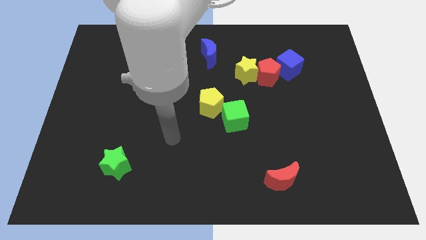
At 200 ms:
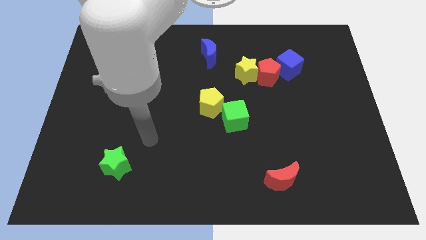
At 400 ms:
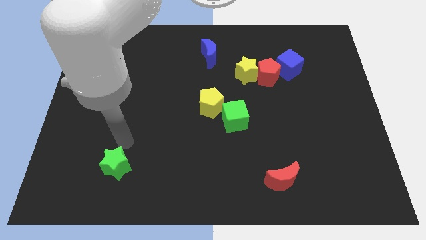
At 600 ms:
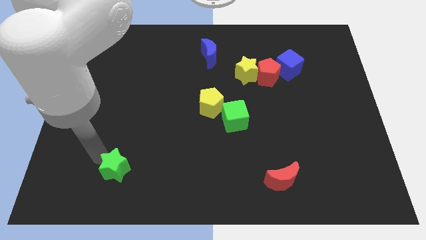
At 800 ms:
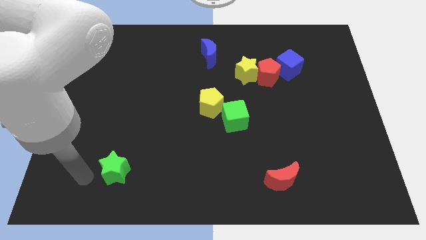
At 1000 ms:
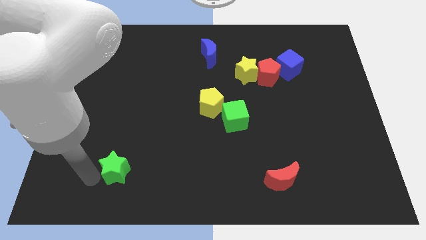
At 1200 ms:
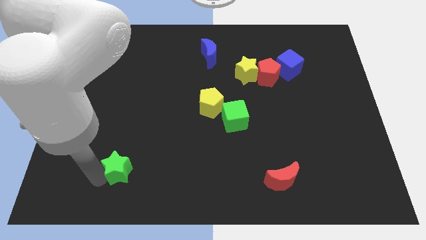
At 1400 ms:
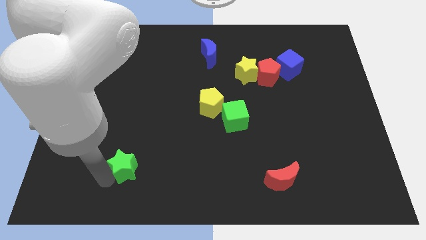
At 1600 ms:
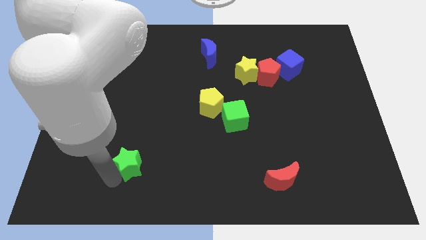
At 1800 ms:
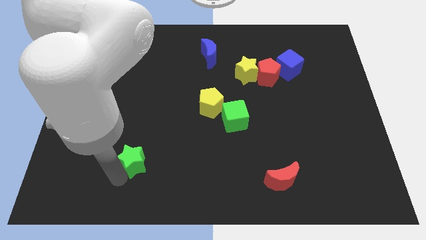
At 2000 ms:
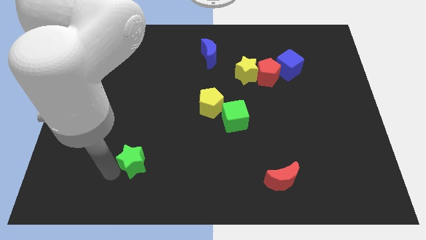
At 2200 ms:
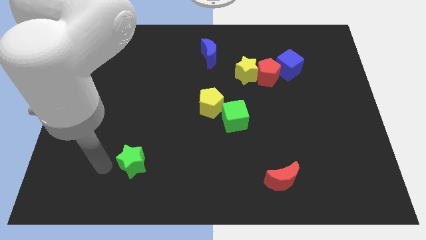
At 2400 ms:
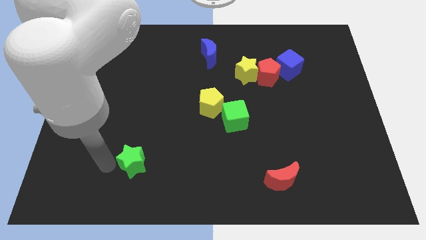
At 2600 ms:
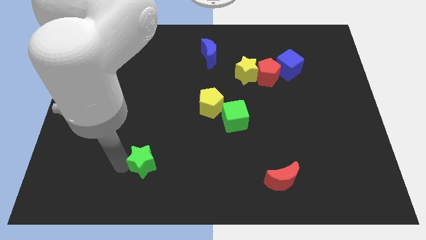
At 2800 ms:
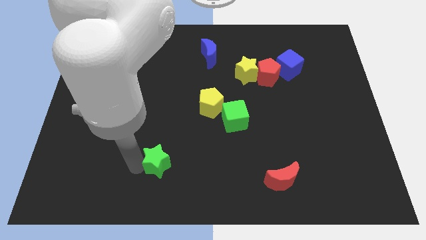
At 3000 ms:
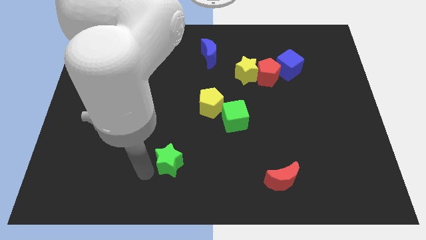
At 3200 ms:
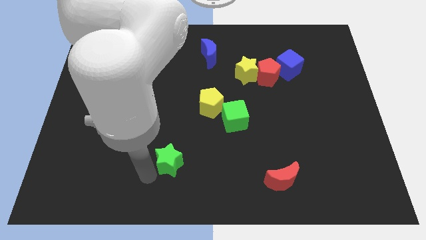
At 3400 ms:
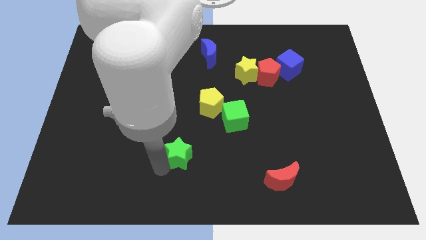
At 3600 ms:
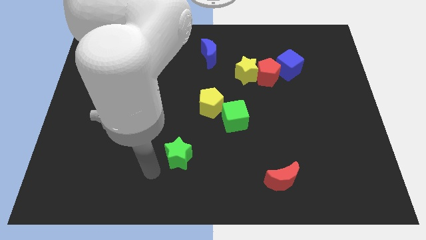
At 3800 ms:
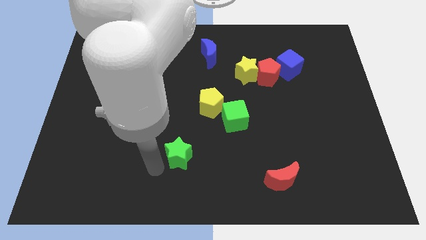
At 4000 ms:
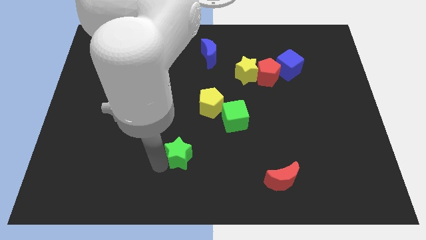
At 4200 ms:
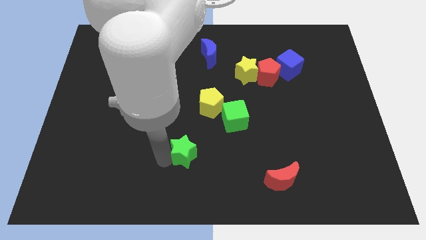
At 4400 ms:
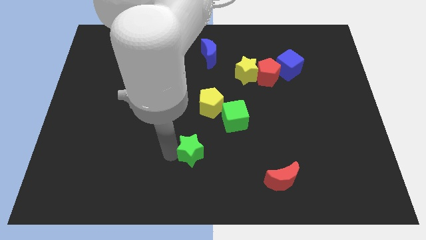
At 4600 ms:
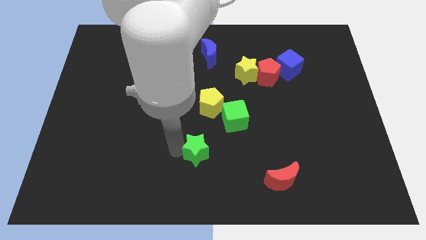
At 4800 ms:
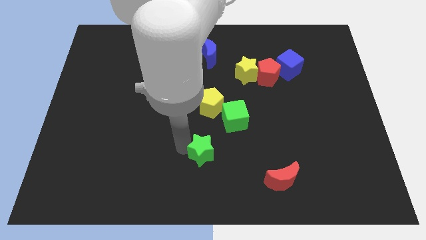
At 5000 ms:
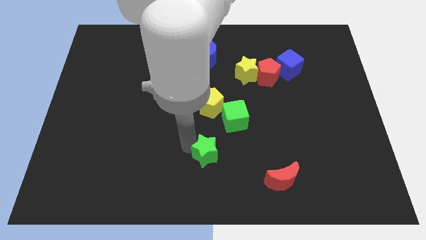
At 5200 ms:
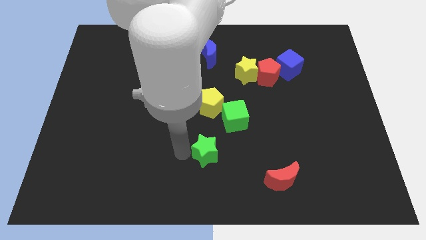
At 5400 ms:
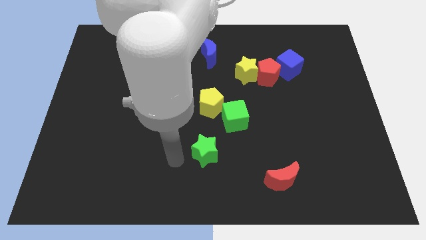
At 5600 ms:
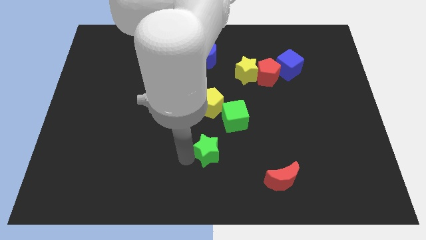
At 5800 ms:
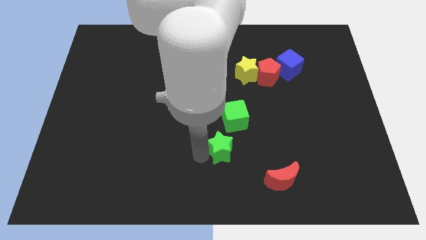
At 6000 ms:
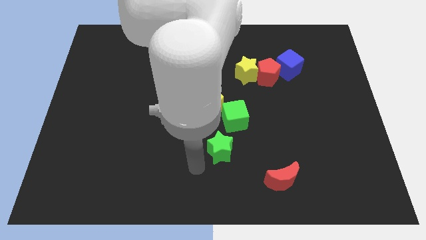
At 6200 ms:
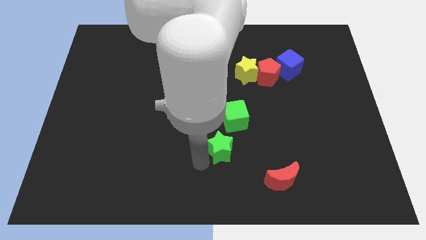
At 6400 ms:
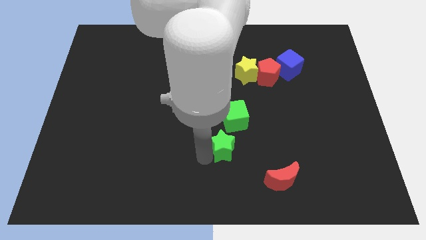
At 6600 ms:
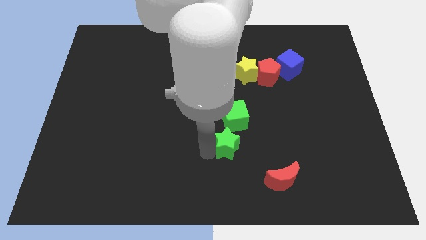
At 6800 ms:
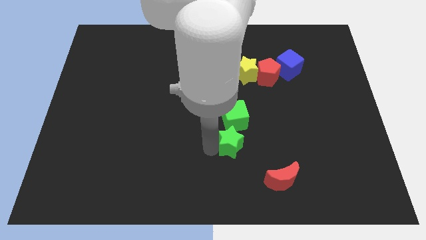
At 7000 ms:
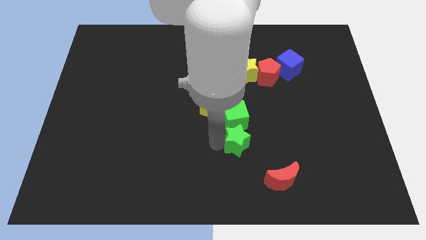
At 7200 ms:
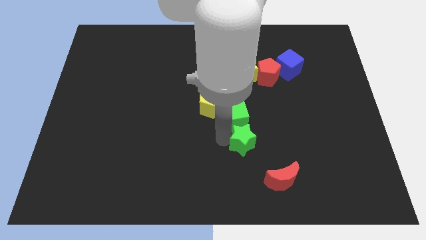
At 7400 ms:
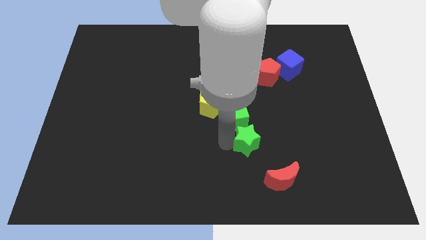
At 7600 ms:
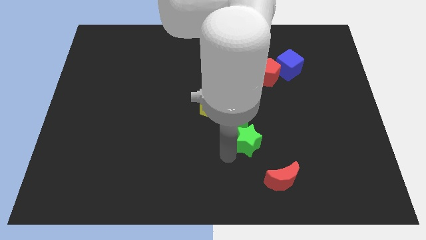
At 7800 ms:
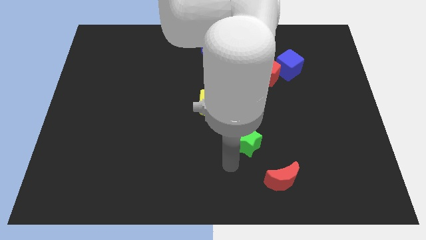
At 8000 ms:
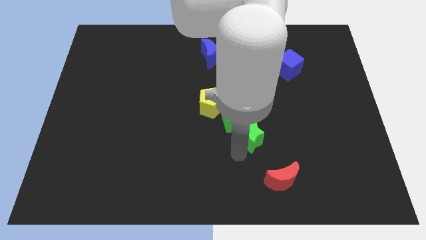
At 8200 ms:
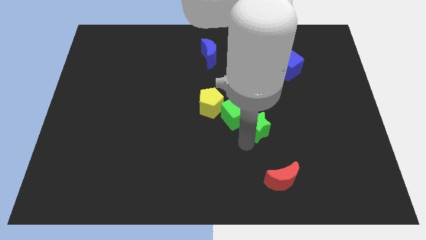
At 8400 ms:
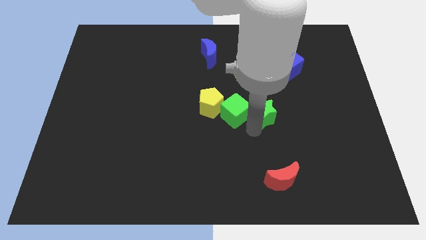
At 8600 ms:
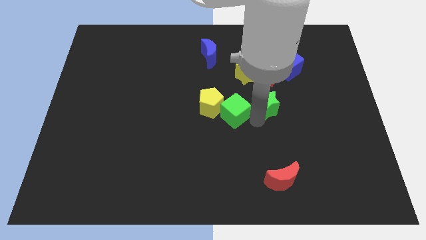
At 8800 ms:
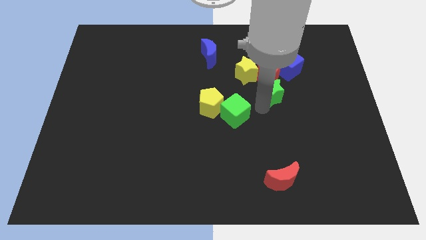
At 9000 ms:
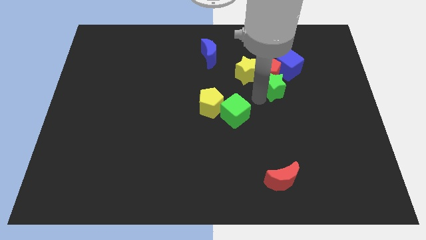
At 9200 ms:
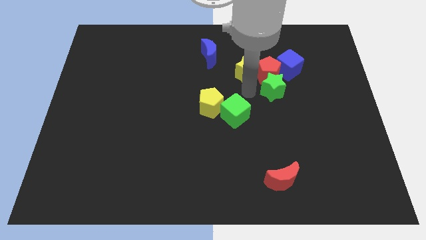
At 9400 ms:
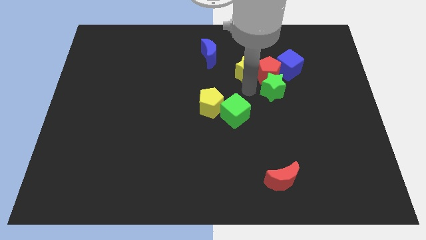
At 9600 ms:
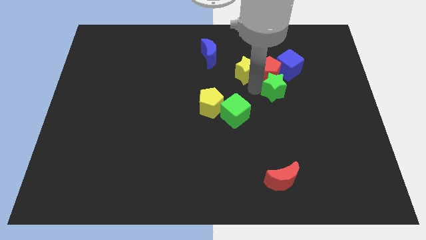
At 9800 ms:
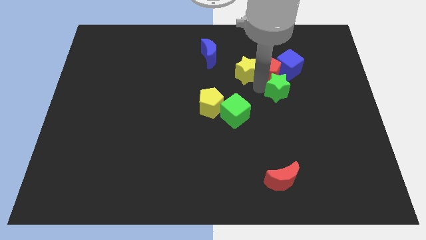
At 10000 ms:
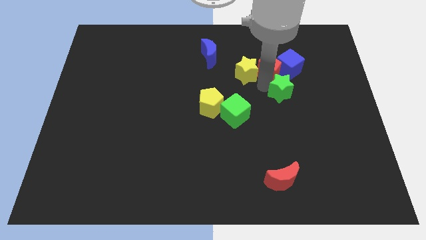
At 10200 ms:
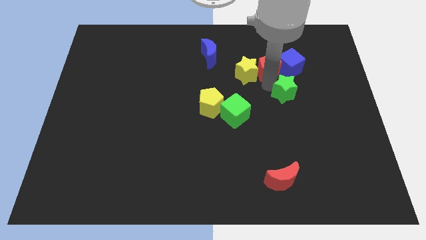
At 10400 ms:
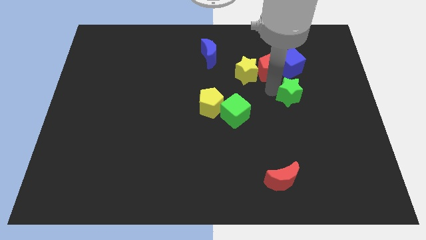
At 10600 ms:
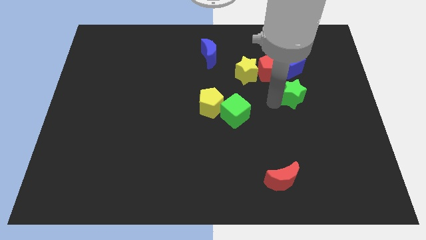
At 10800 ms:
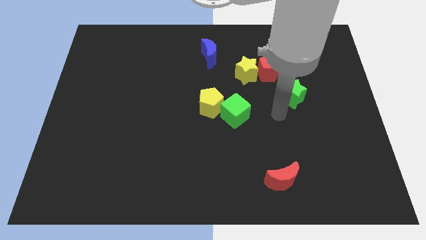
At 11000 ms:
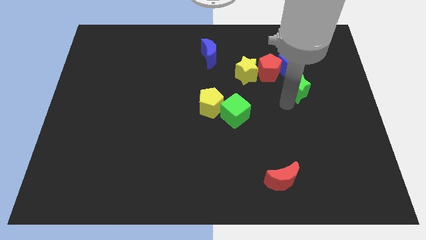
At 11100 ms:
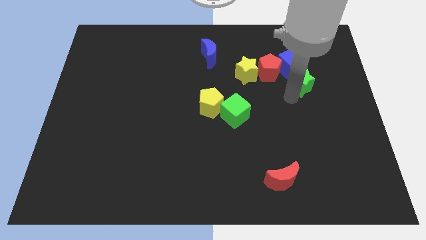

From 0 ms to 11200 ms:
move the green star just right of the red pentagon

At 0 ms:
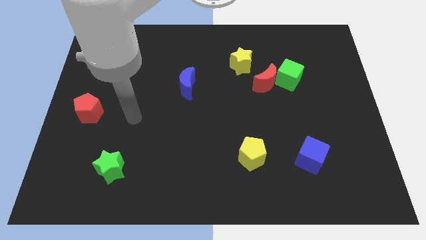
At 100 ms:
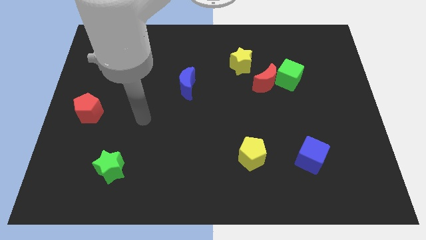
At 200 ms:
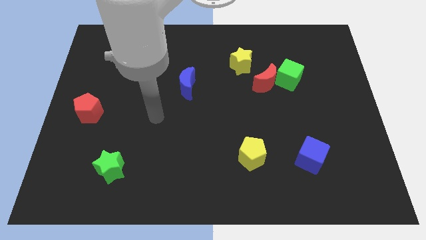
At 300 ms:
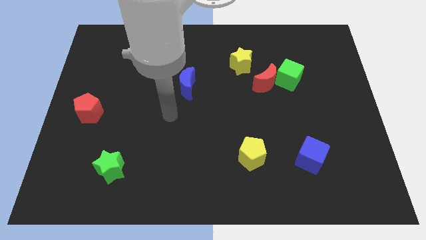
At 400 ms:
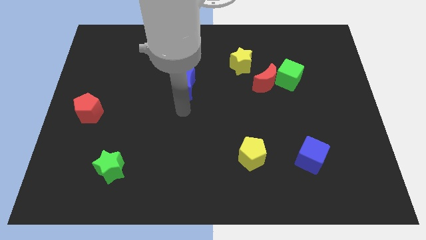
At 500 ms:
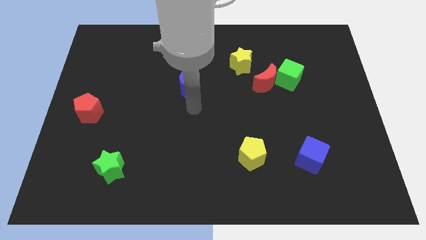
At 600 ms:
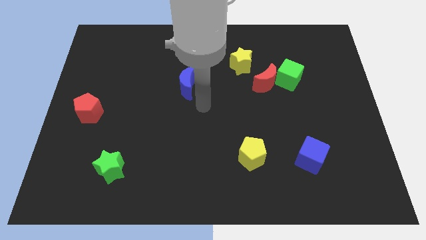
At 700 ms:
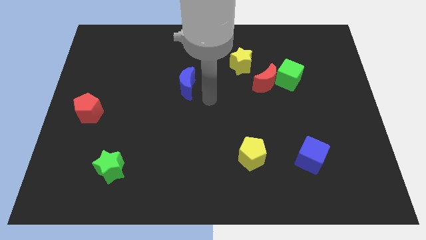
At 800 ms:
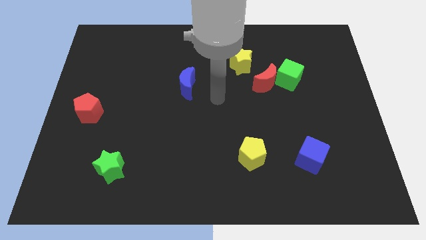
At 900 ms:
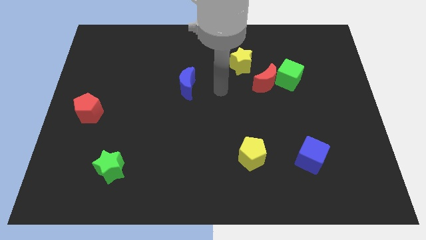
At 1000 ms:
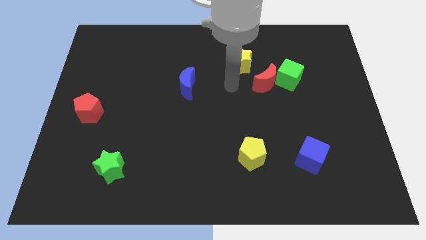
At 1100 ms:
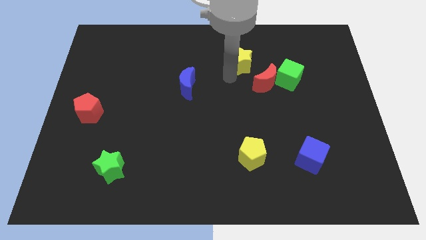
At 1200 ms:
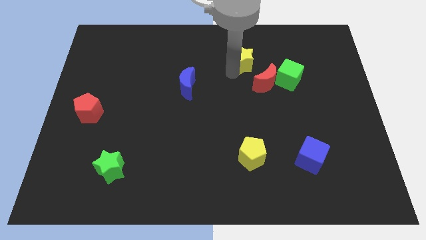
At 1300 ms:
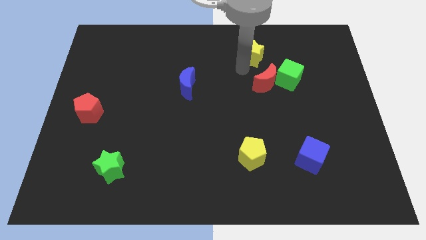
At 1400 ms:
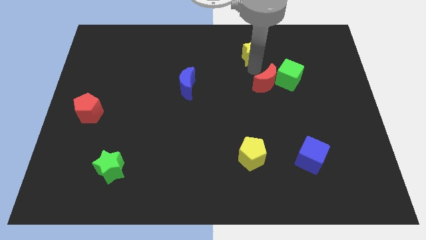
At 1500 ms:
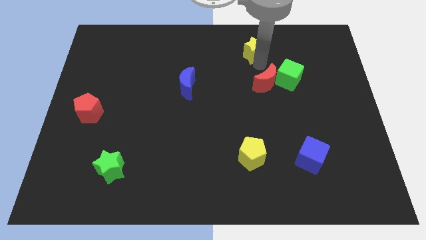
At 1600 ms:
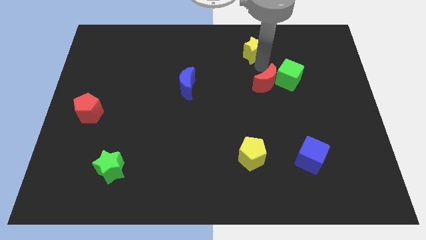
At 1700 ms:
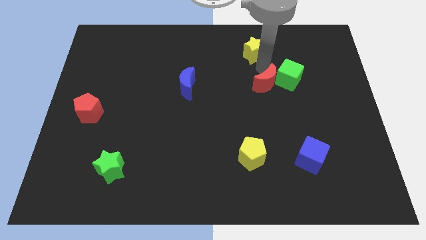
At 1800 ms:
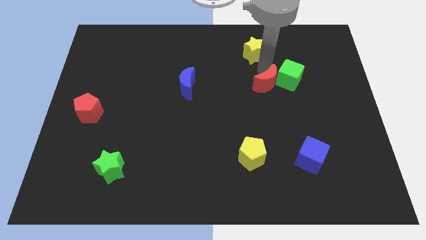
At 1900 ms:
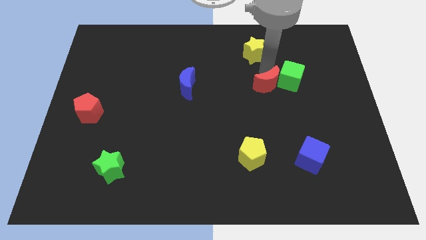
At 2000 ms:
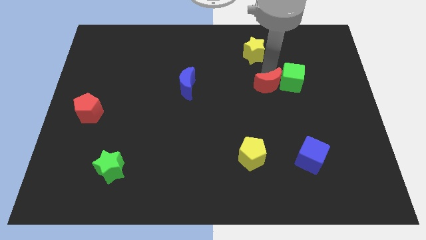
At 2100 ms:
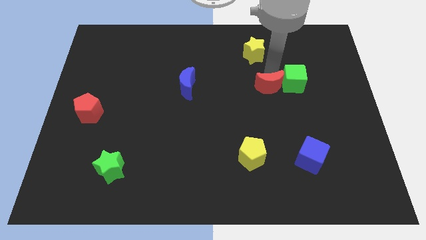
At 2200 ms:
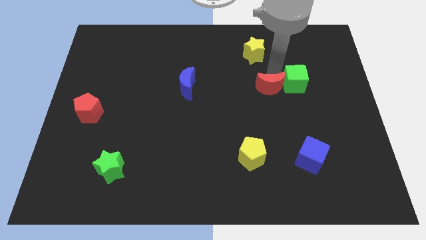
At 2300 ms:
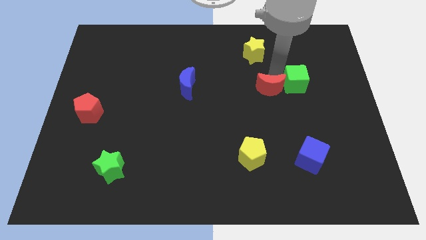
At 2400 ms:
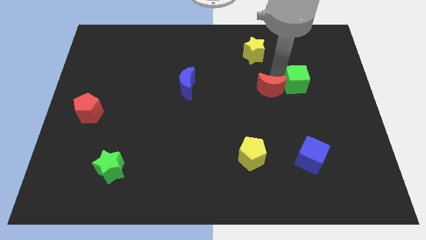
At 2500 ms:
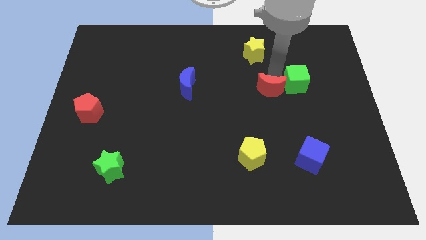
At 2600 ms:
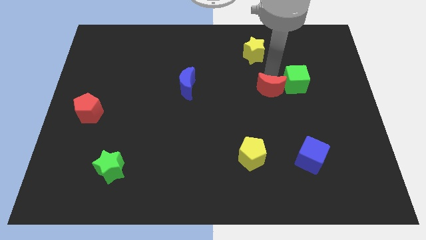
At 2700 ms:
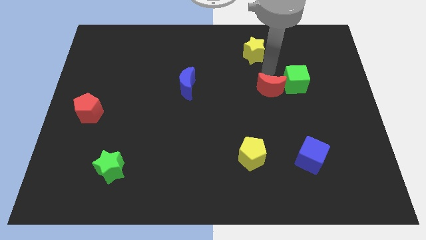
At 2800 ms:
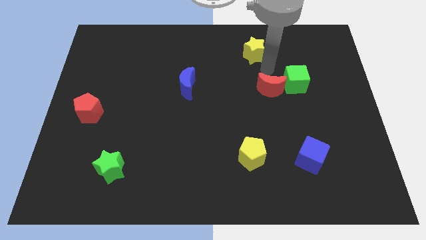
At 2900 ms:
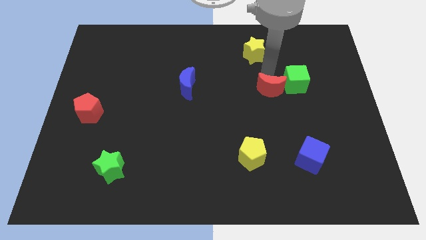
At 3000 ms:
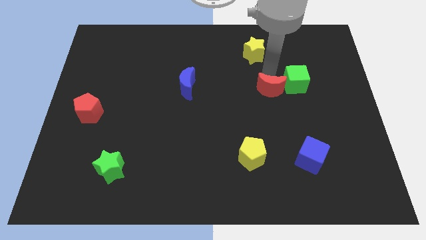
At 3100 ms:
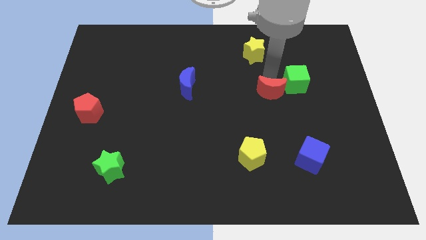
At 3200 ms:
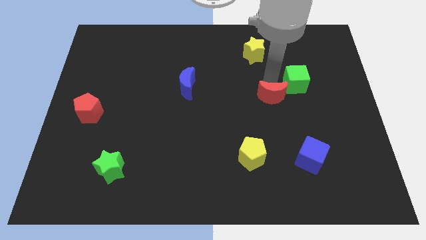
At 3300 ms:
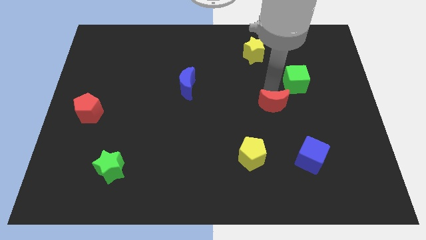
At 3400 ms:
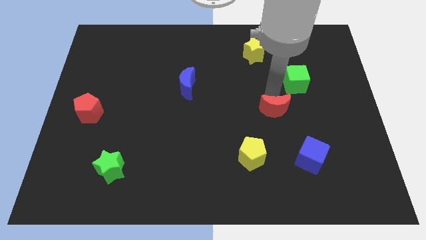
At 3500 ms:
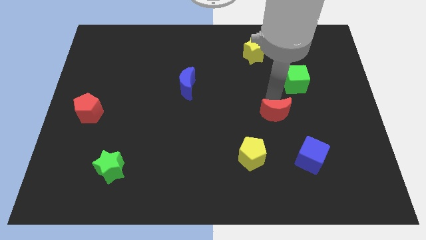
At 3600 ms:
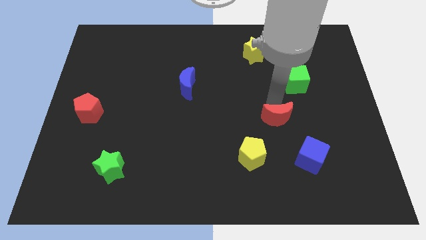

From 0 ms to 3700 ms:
push the red moon to the top left side of the blue cube
